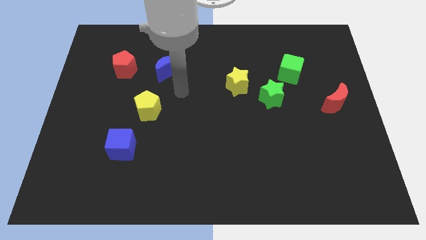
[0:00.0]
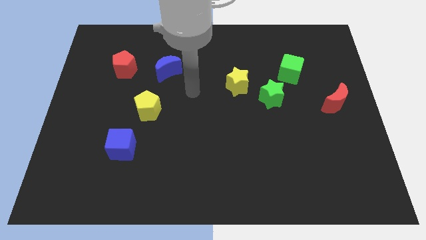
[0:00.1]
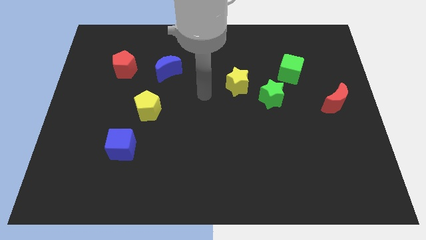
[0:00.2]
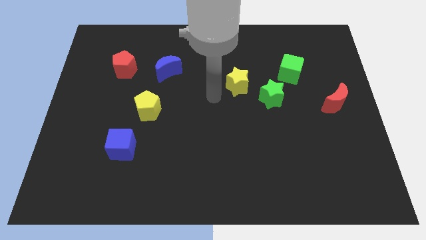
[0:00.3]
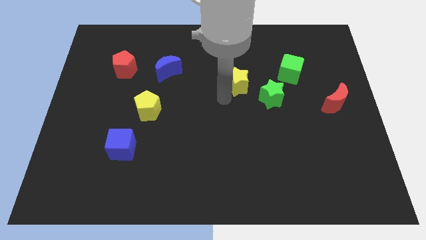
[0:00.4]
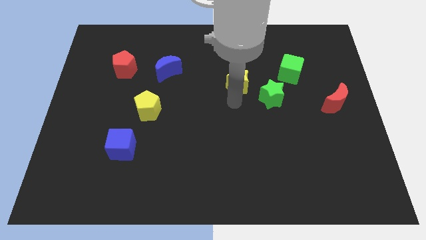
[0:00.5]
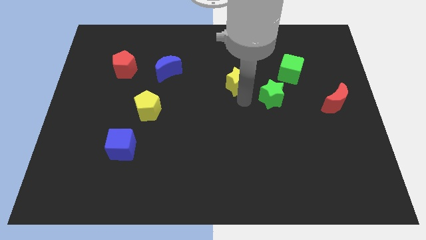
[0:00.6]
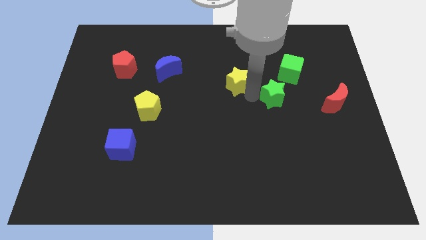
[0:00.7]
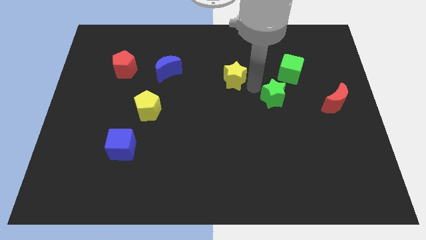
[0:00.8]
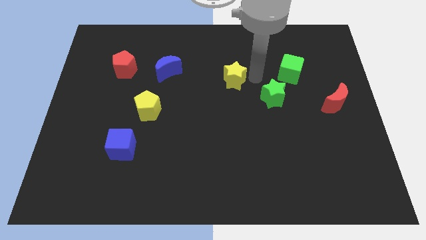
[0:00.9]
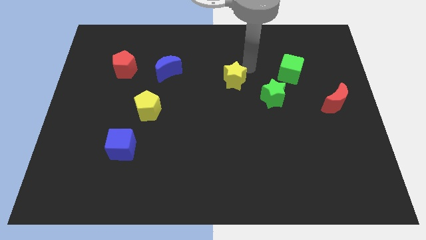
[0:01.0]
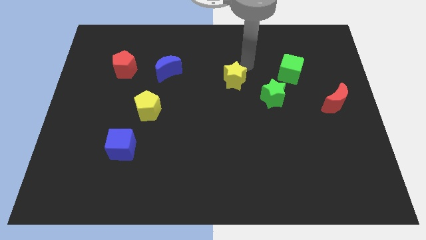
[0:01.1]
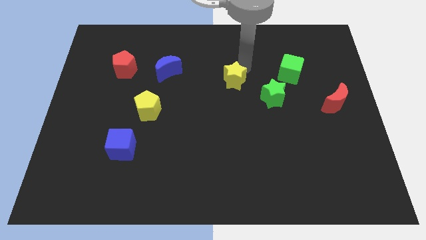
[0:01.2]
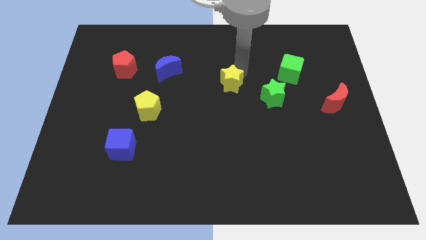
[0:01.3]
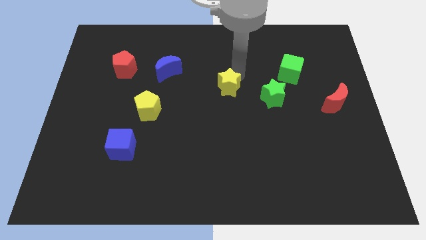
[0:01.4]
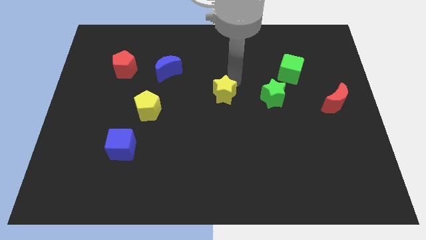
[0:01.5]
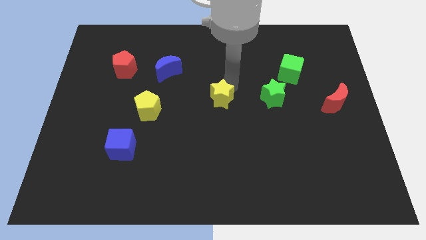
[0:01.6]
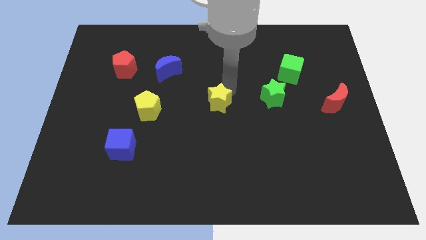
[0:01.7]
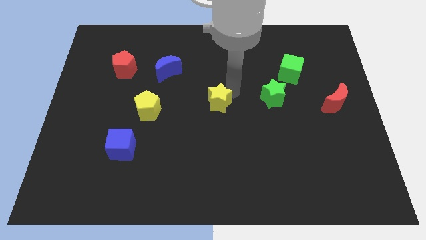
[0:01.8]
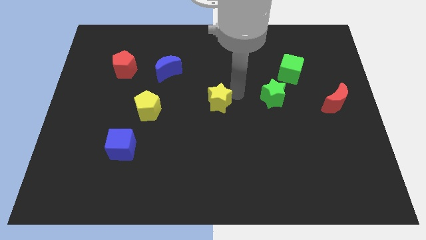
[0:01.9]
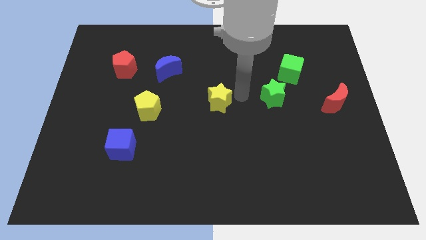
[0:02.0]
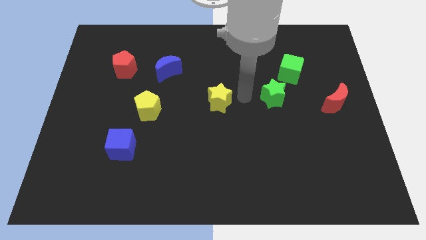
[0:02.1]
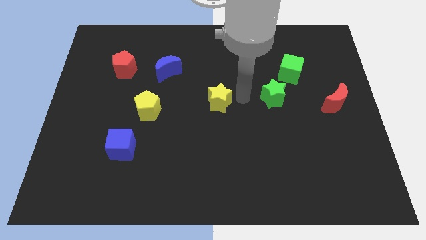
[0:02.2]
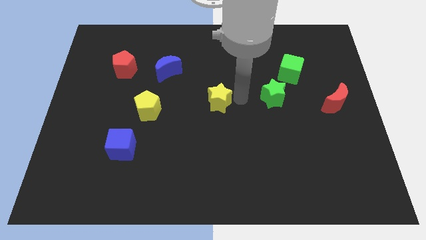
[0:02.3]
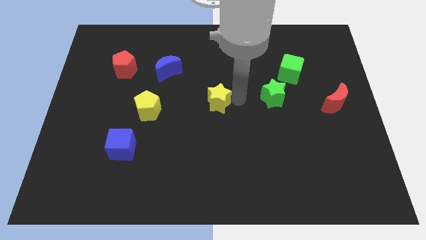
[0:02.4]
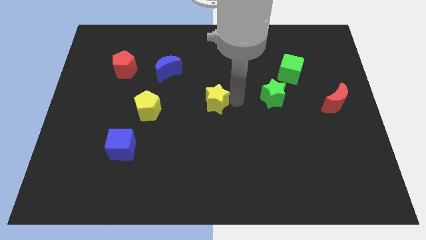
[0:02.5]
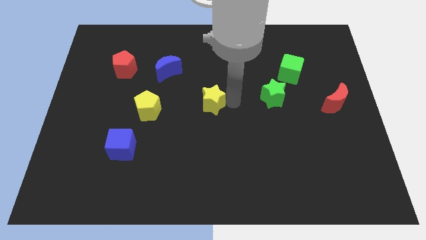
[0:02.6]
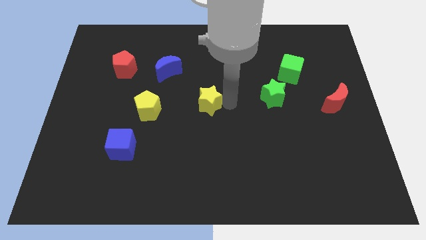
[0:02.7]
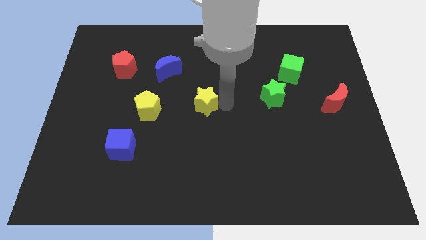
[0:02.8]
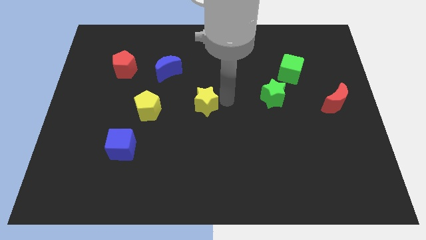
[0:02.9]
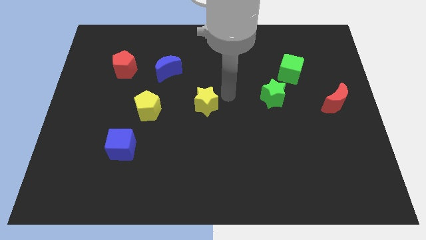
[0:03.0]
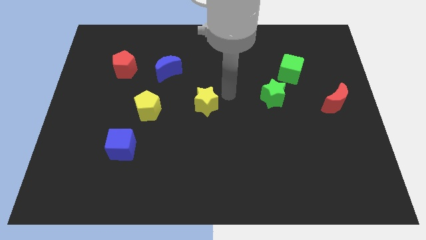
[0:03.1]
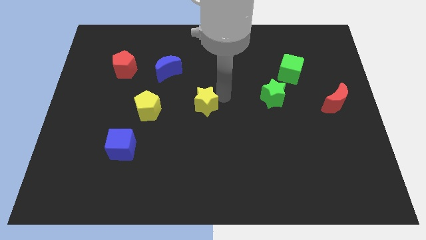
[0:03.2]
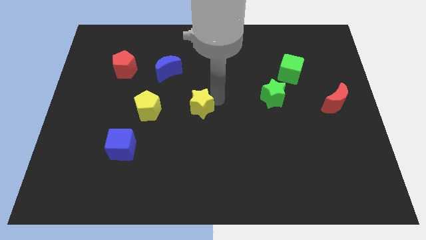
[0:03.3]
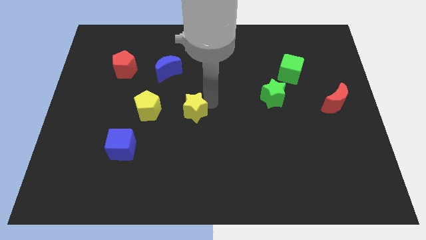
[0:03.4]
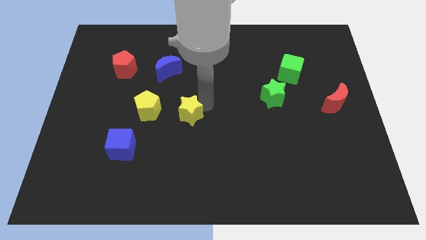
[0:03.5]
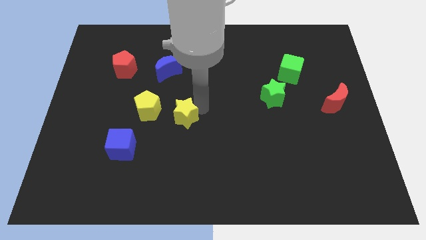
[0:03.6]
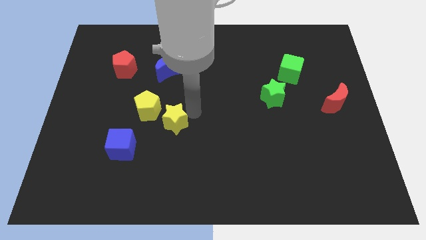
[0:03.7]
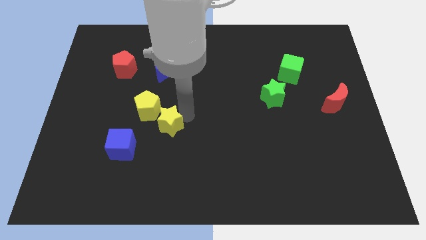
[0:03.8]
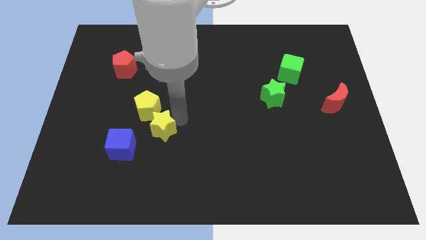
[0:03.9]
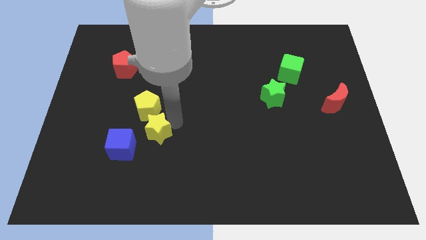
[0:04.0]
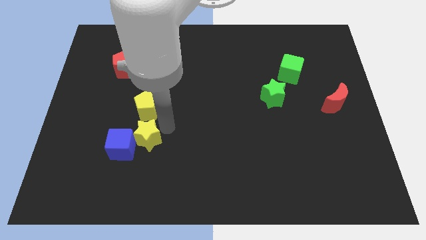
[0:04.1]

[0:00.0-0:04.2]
slide the yellow star towards the blue cube

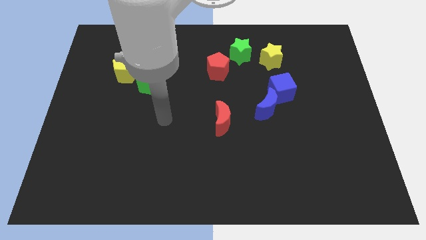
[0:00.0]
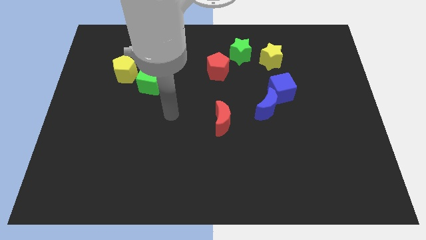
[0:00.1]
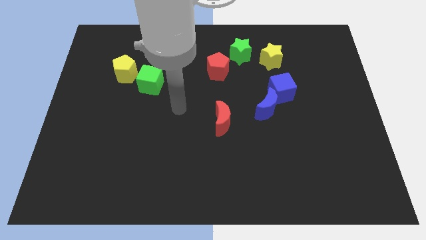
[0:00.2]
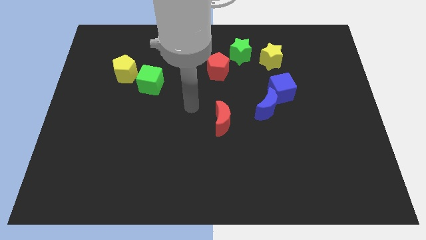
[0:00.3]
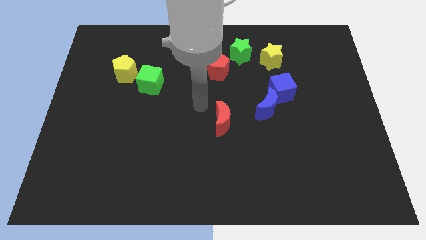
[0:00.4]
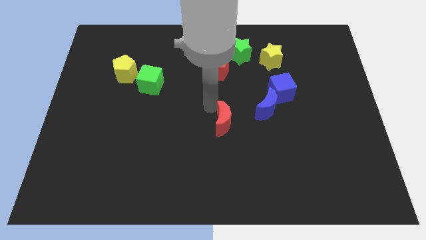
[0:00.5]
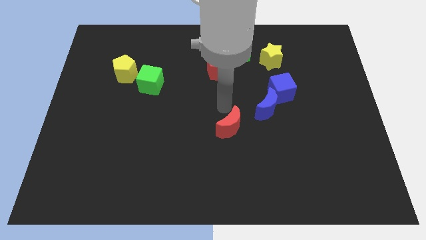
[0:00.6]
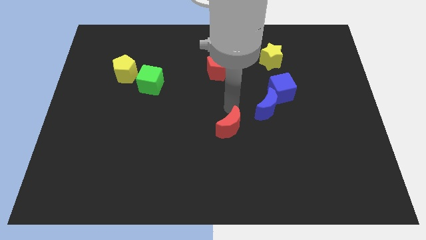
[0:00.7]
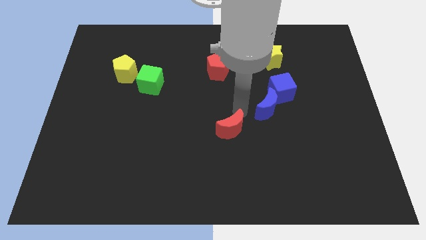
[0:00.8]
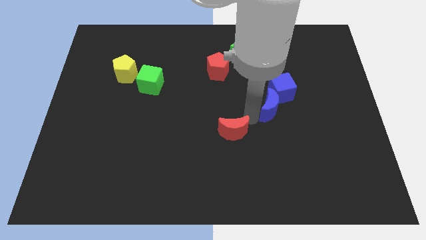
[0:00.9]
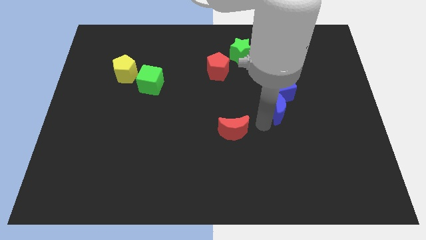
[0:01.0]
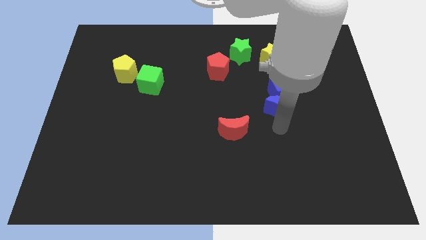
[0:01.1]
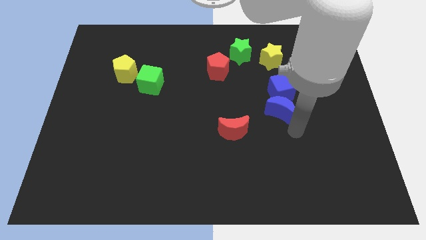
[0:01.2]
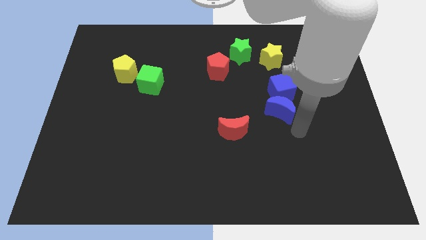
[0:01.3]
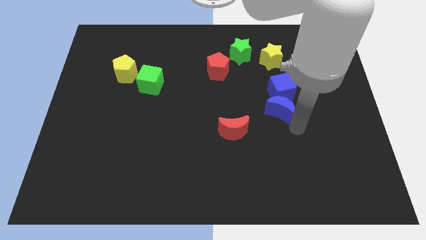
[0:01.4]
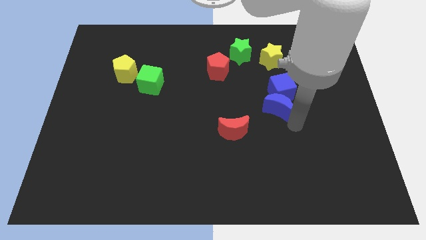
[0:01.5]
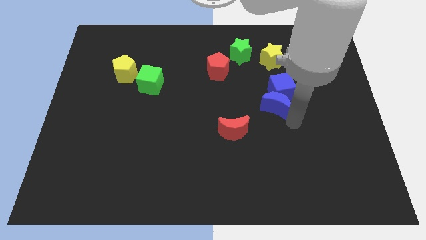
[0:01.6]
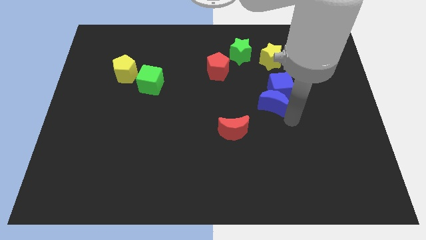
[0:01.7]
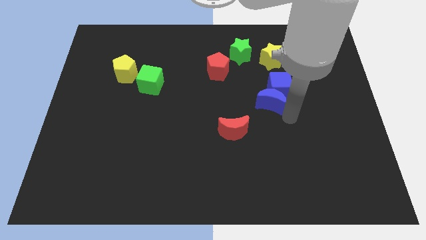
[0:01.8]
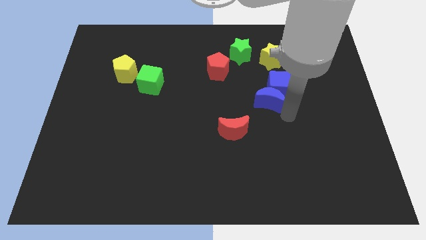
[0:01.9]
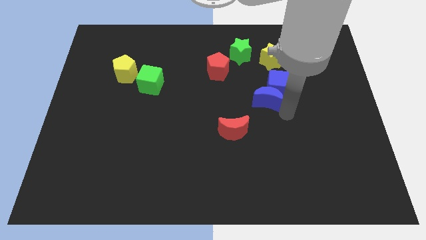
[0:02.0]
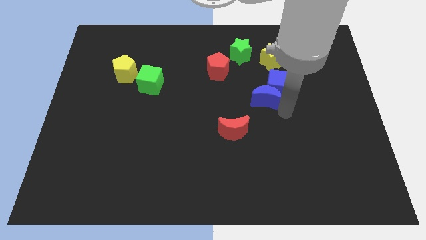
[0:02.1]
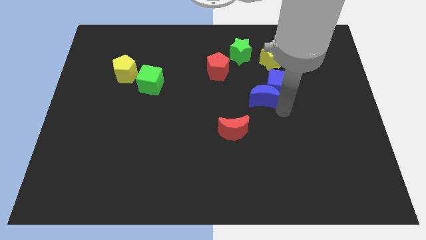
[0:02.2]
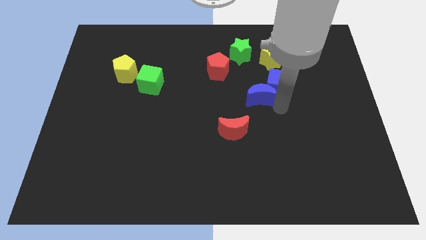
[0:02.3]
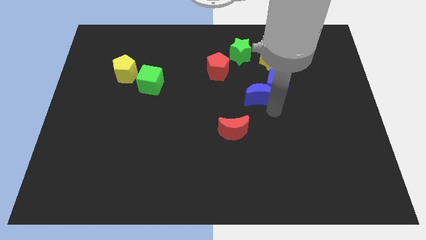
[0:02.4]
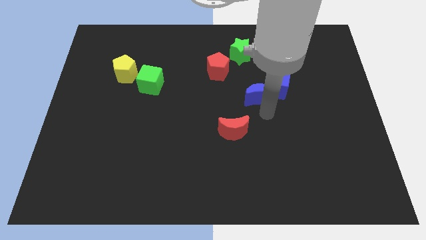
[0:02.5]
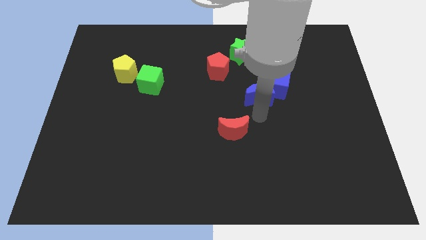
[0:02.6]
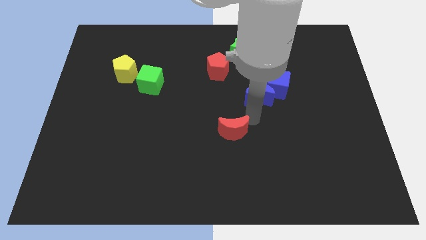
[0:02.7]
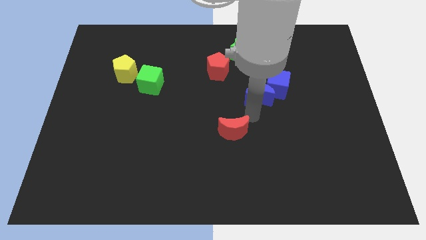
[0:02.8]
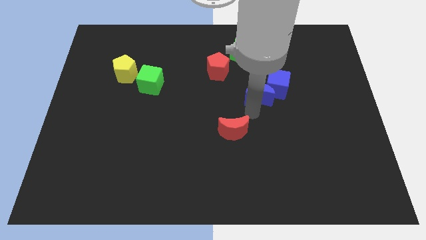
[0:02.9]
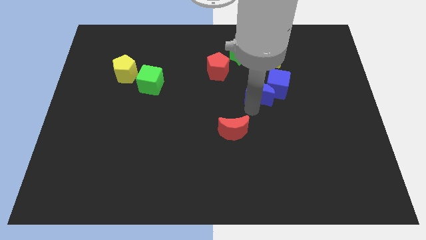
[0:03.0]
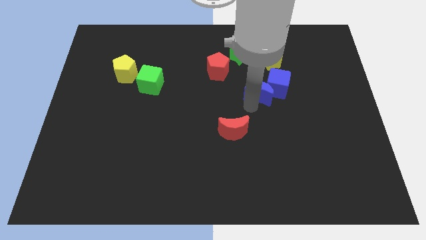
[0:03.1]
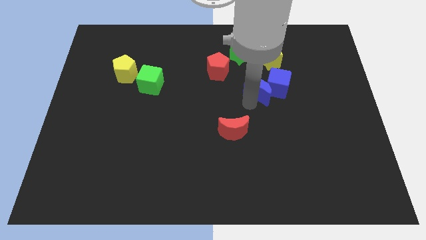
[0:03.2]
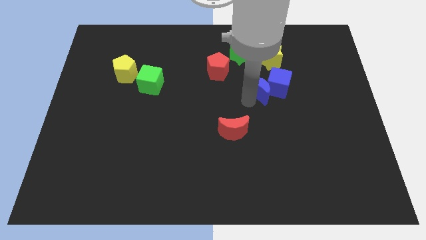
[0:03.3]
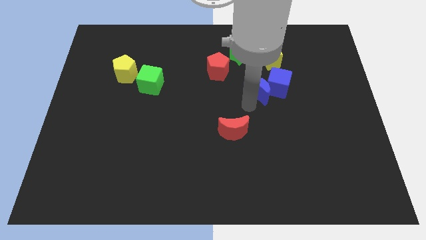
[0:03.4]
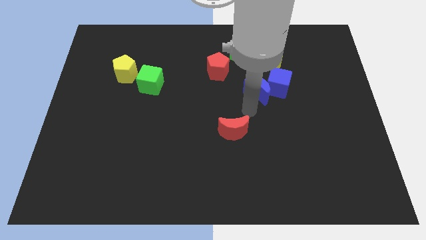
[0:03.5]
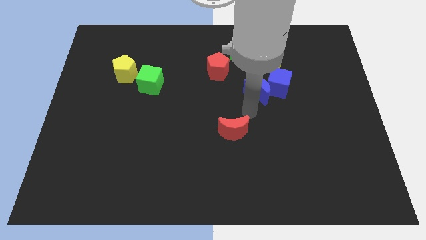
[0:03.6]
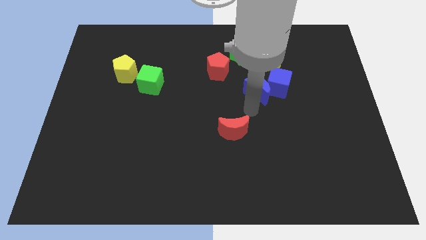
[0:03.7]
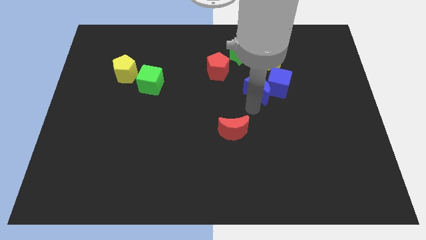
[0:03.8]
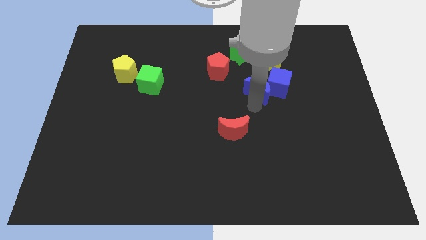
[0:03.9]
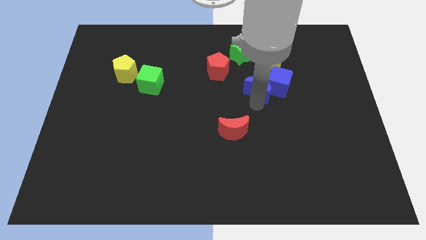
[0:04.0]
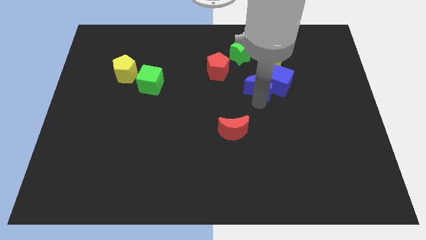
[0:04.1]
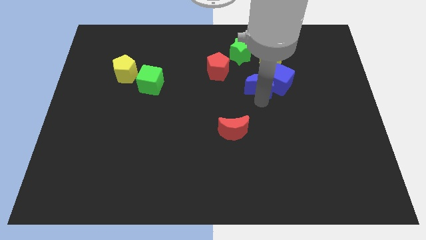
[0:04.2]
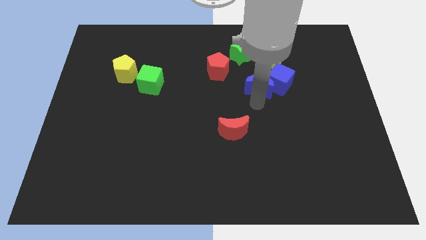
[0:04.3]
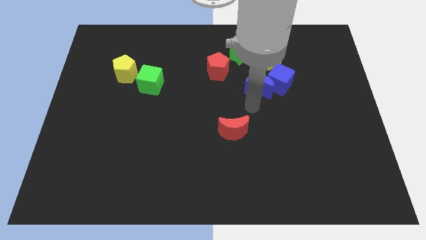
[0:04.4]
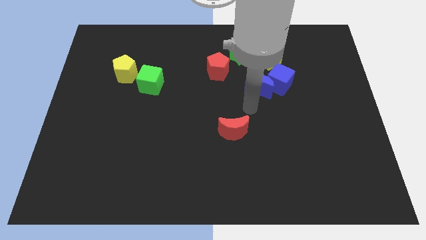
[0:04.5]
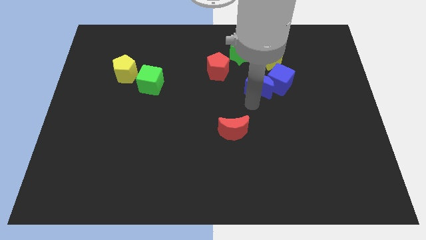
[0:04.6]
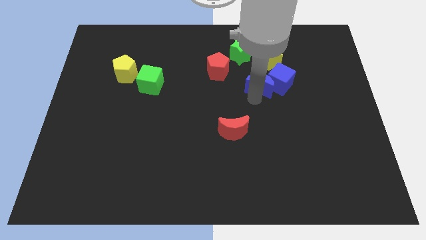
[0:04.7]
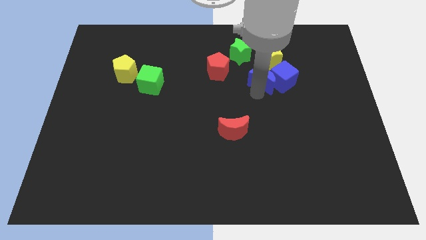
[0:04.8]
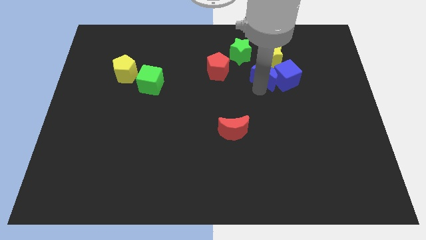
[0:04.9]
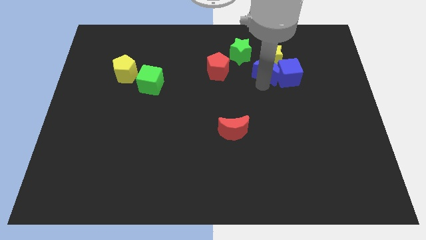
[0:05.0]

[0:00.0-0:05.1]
slide the blue moon close to the yellow star
